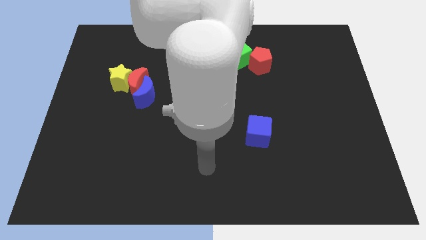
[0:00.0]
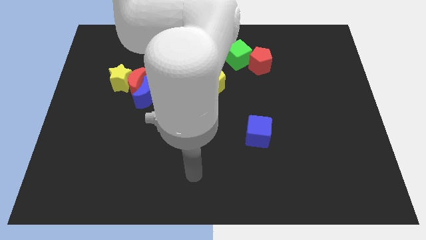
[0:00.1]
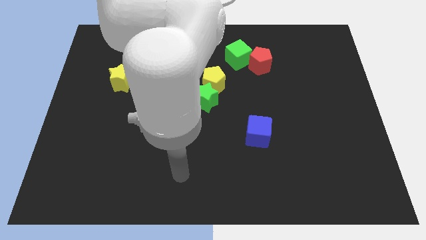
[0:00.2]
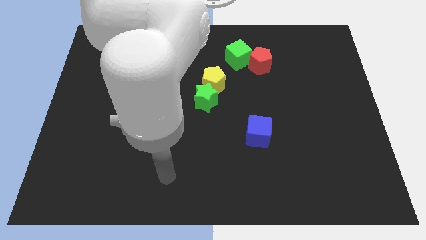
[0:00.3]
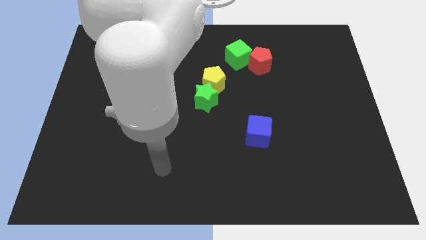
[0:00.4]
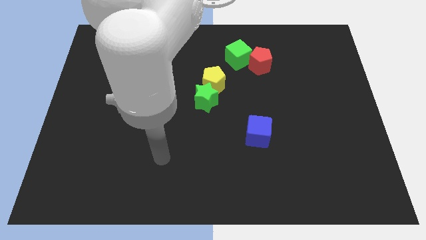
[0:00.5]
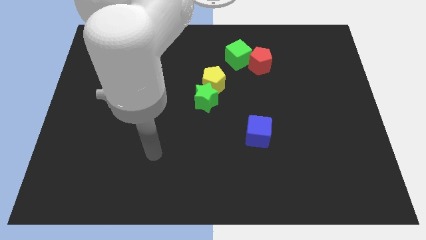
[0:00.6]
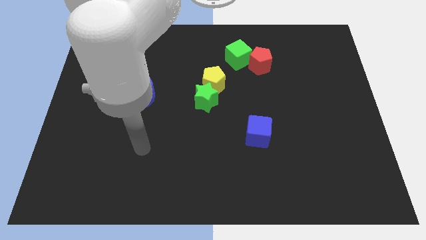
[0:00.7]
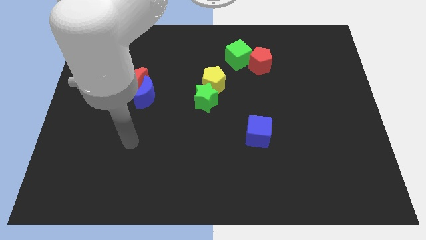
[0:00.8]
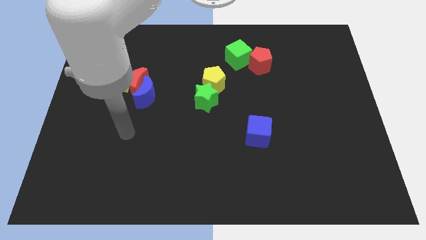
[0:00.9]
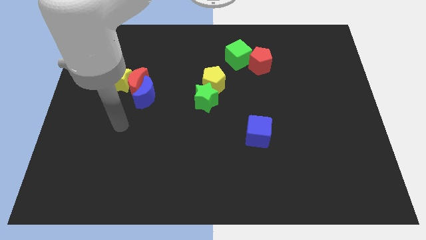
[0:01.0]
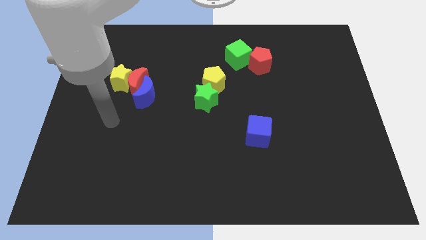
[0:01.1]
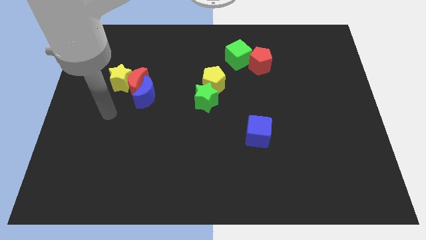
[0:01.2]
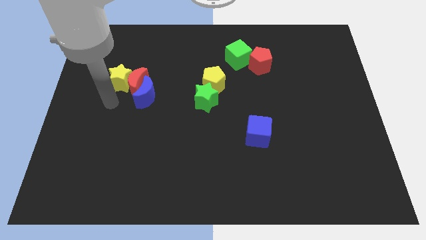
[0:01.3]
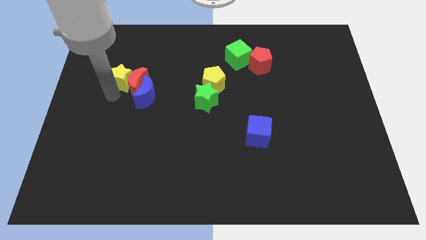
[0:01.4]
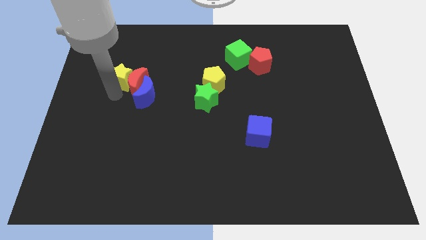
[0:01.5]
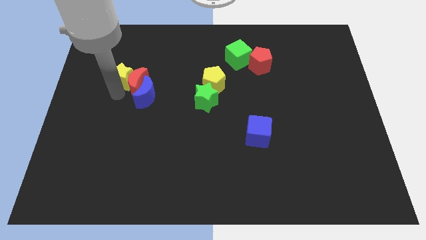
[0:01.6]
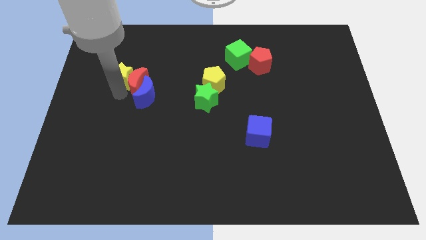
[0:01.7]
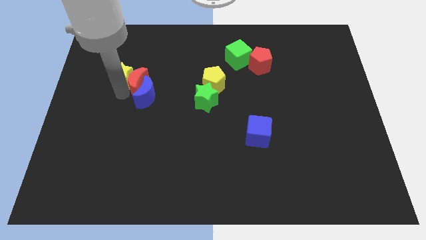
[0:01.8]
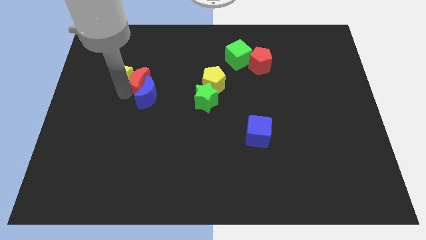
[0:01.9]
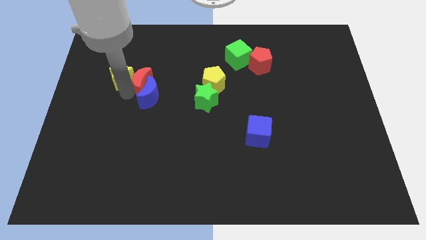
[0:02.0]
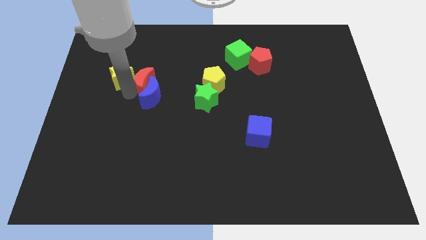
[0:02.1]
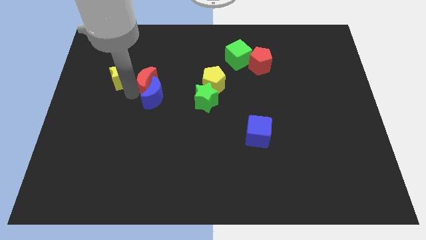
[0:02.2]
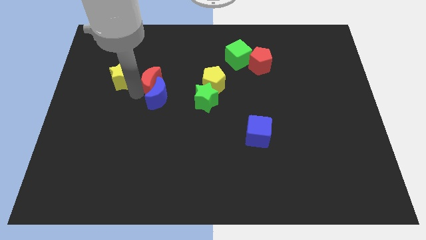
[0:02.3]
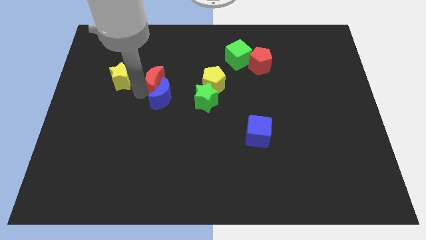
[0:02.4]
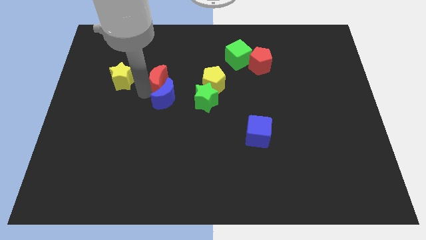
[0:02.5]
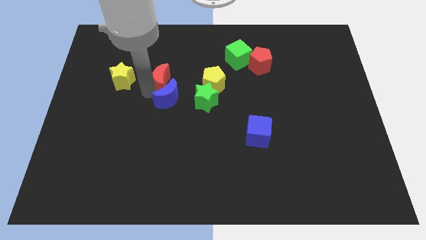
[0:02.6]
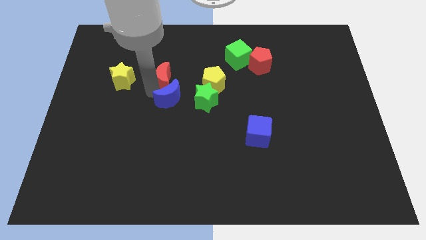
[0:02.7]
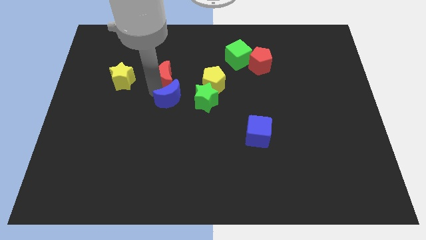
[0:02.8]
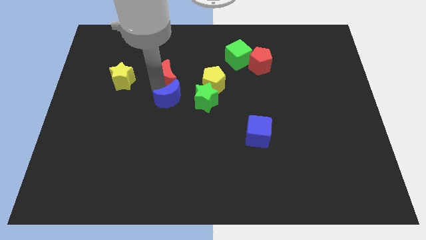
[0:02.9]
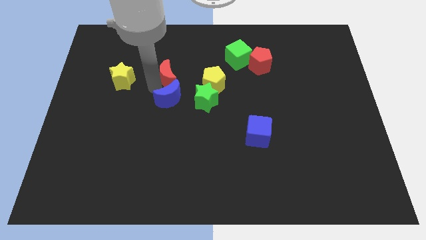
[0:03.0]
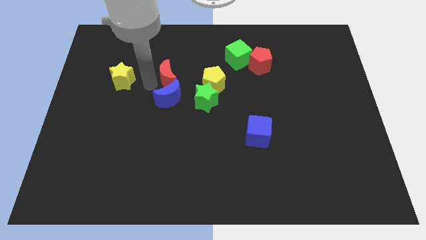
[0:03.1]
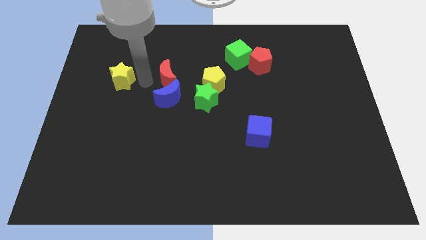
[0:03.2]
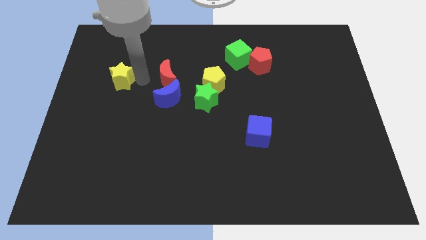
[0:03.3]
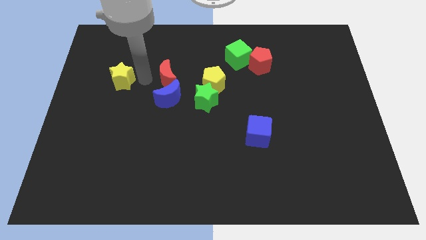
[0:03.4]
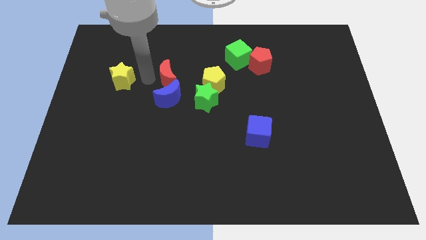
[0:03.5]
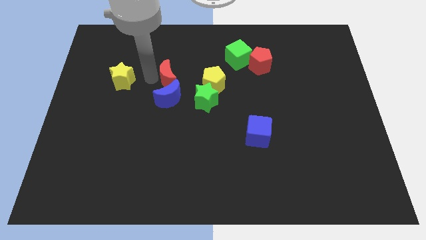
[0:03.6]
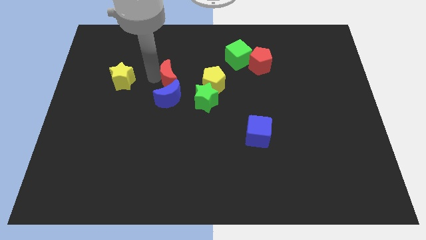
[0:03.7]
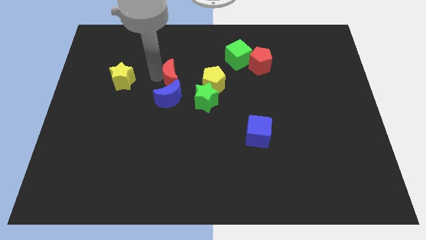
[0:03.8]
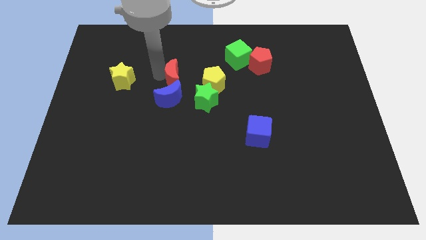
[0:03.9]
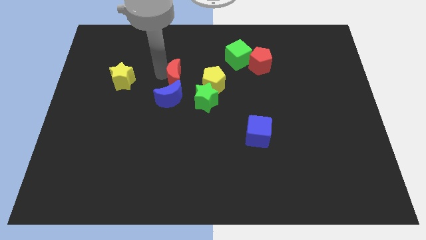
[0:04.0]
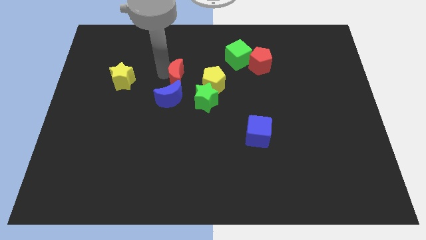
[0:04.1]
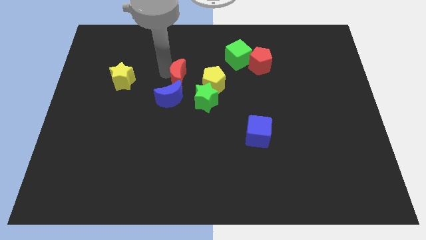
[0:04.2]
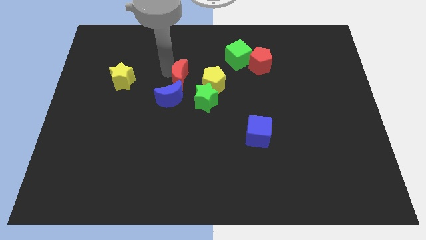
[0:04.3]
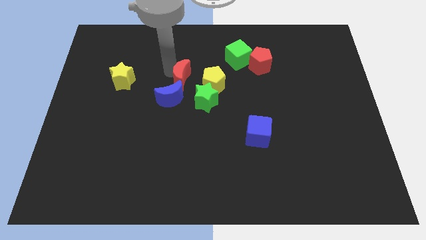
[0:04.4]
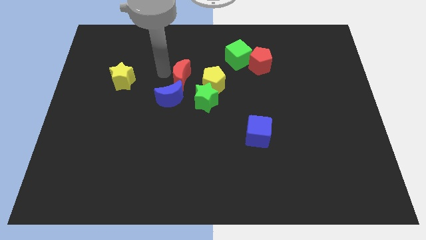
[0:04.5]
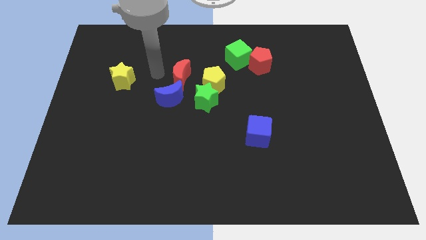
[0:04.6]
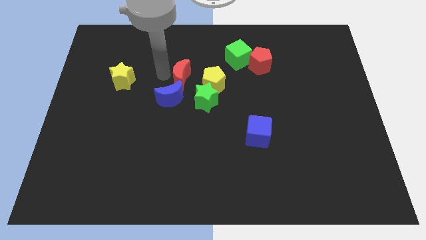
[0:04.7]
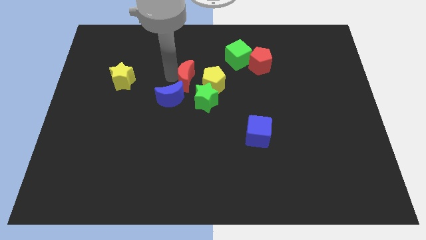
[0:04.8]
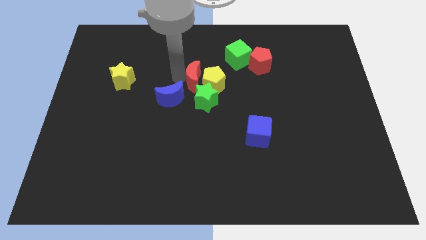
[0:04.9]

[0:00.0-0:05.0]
slide the red moon to the yellow pentagon

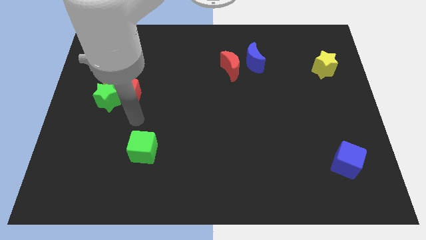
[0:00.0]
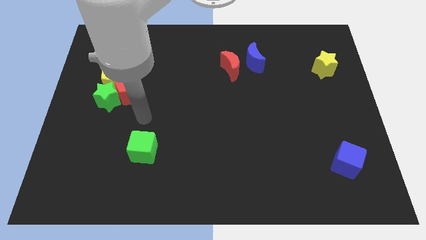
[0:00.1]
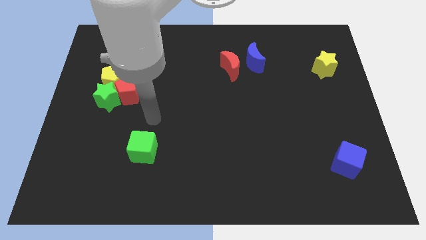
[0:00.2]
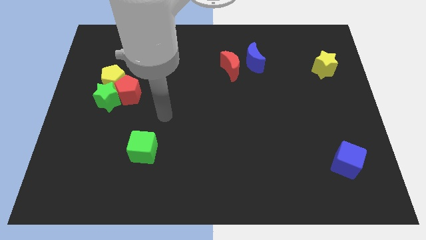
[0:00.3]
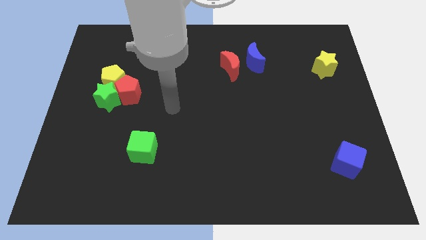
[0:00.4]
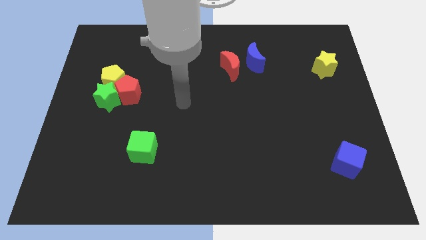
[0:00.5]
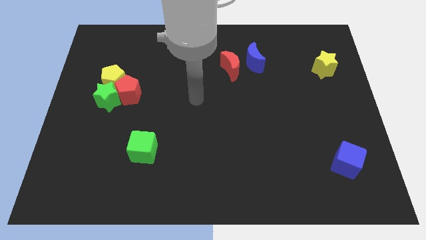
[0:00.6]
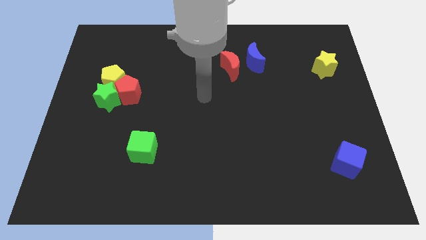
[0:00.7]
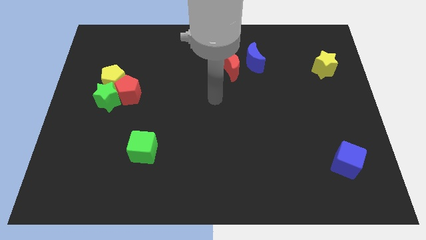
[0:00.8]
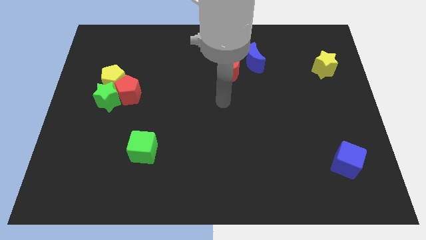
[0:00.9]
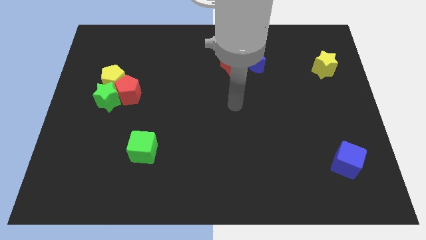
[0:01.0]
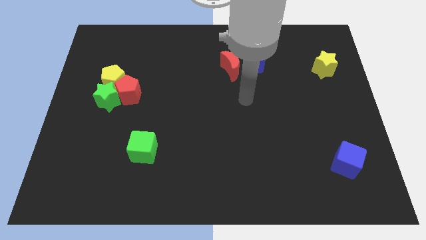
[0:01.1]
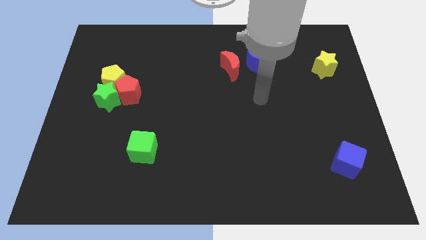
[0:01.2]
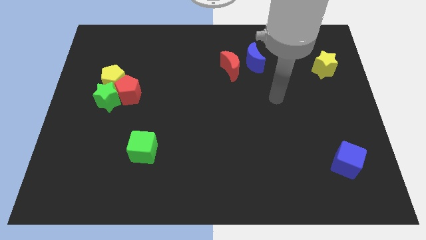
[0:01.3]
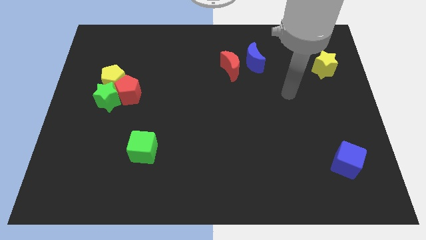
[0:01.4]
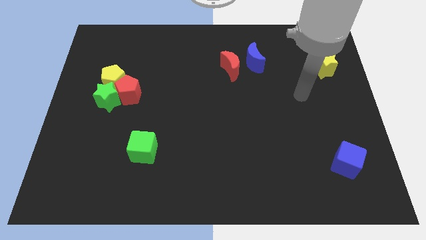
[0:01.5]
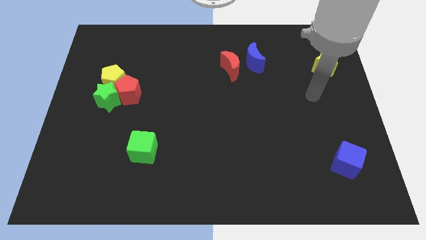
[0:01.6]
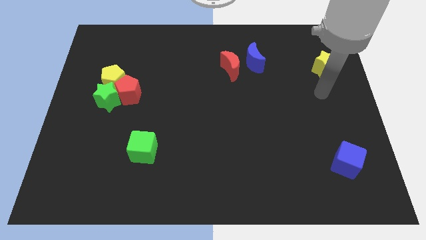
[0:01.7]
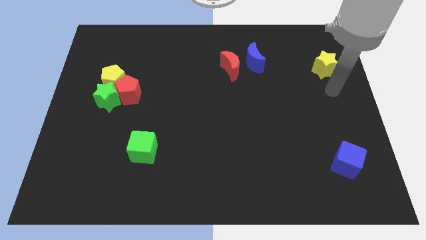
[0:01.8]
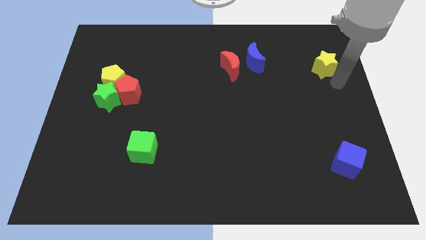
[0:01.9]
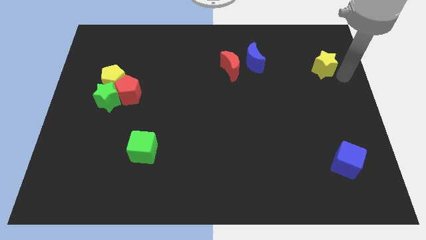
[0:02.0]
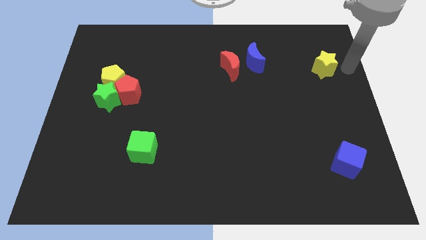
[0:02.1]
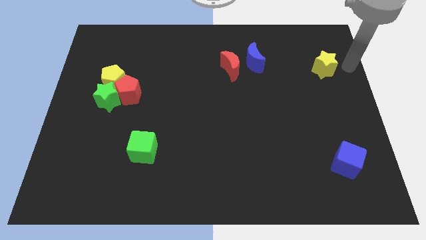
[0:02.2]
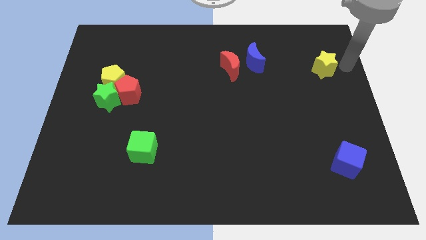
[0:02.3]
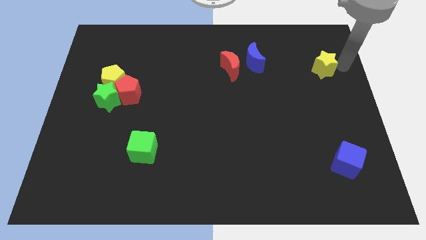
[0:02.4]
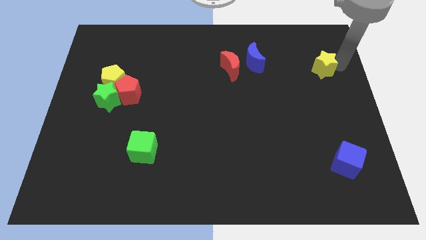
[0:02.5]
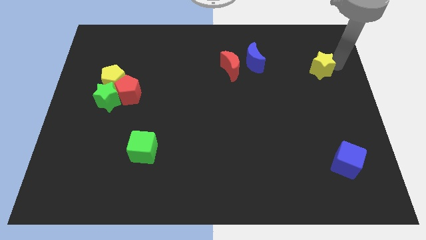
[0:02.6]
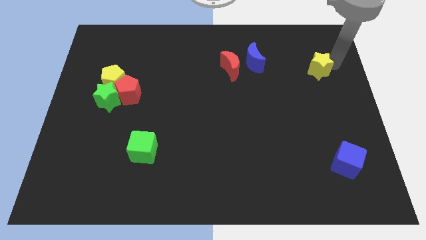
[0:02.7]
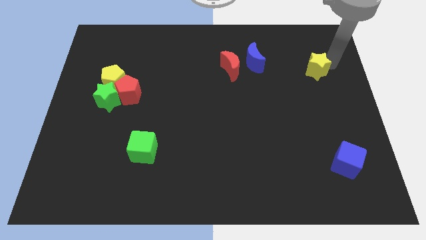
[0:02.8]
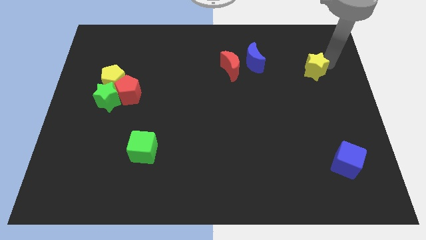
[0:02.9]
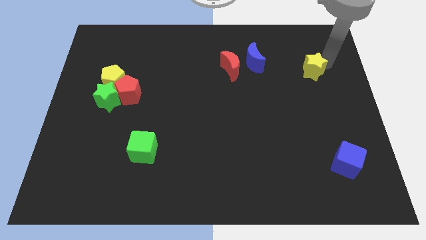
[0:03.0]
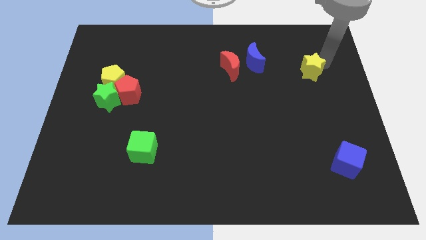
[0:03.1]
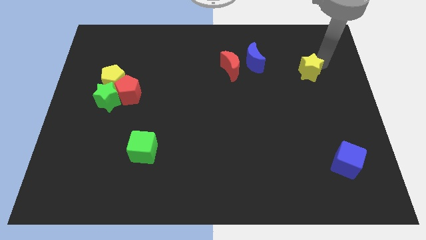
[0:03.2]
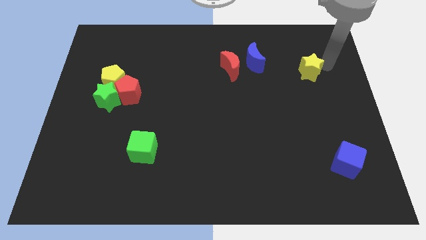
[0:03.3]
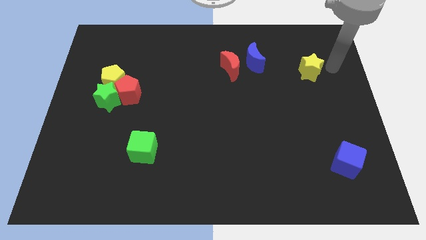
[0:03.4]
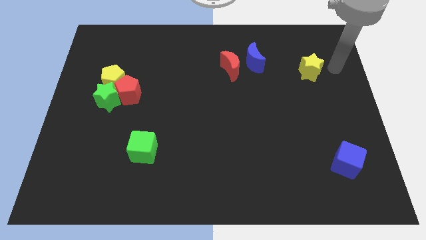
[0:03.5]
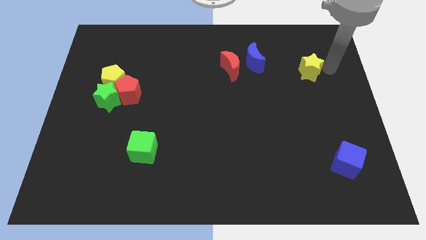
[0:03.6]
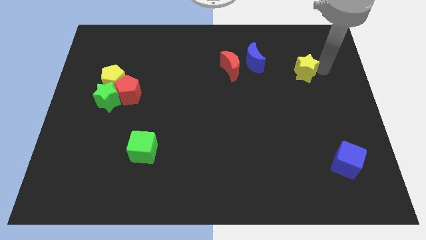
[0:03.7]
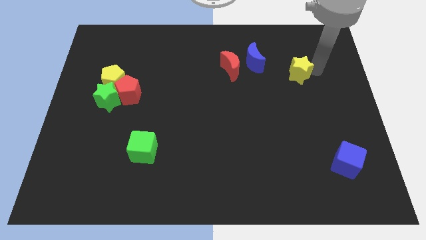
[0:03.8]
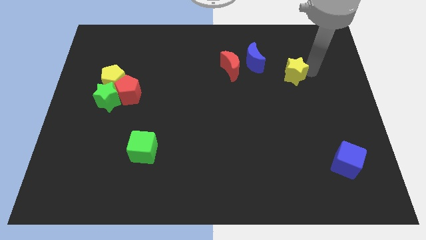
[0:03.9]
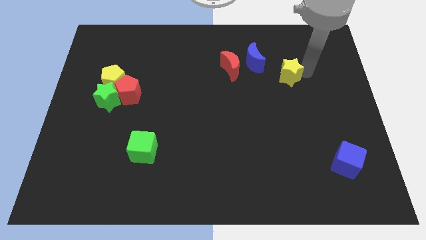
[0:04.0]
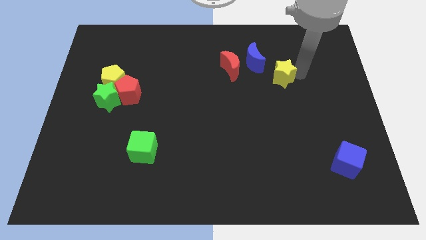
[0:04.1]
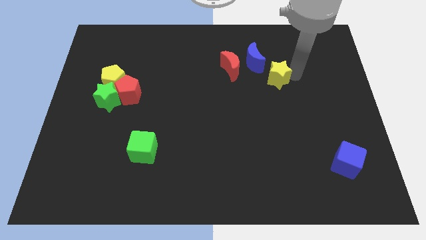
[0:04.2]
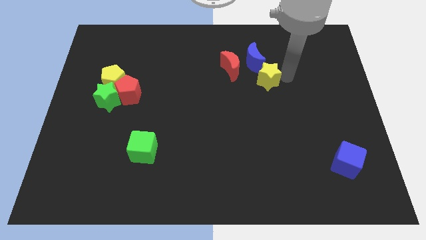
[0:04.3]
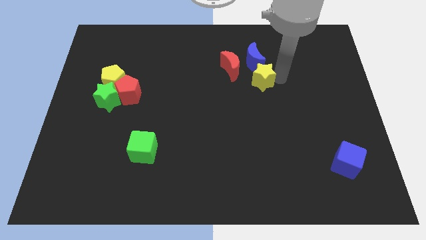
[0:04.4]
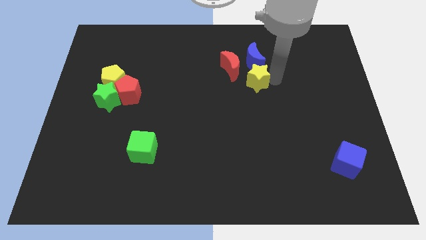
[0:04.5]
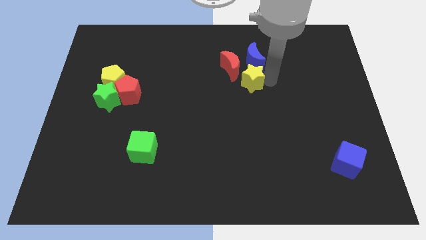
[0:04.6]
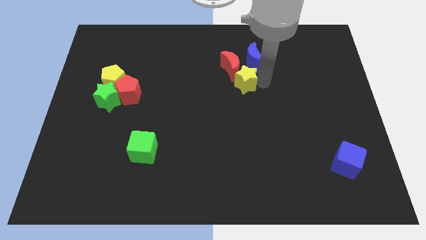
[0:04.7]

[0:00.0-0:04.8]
move the yellow star next to the red moon
